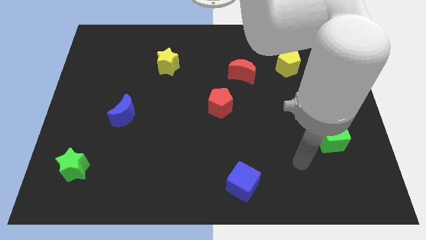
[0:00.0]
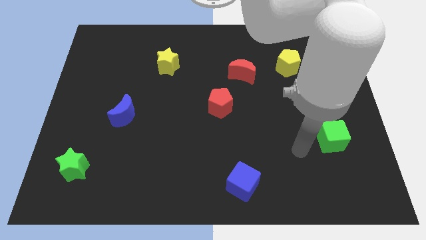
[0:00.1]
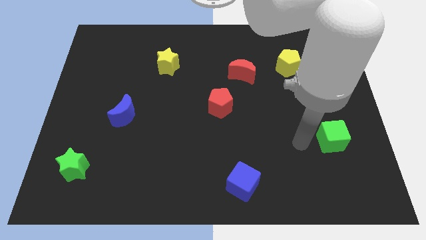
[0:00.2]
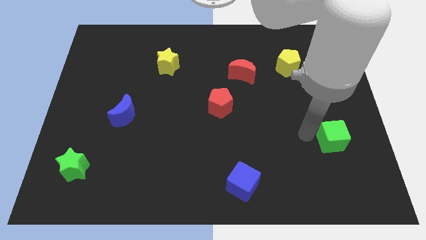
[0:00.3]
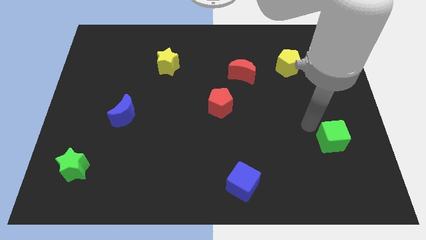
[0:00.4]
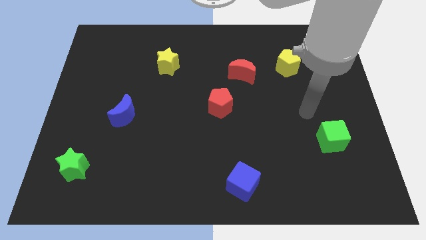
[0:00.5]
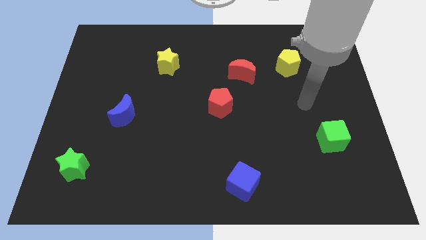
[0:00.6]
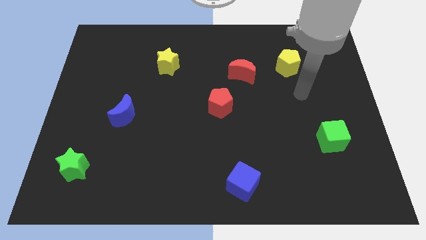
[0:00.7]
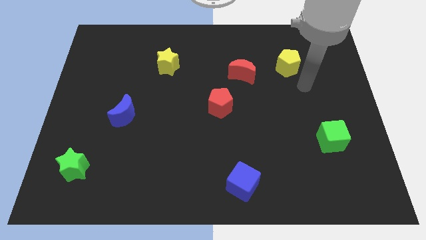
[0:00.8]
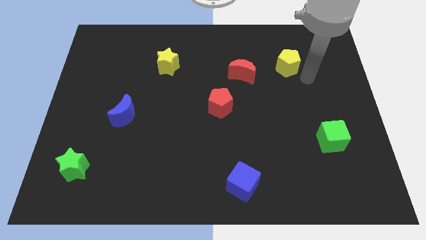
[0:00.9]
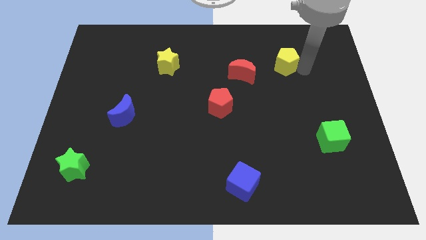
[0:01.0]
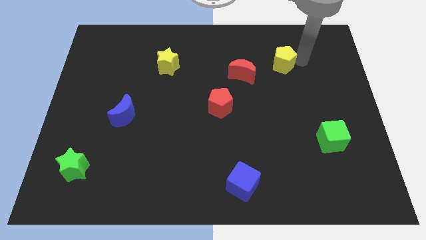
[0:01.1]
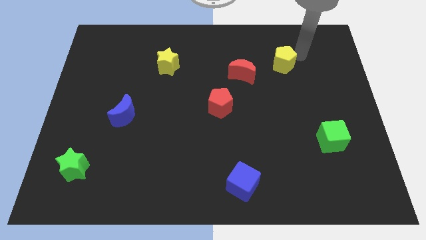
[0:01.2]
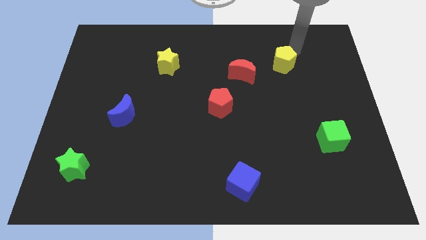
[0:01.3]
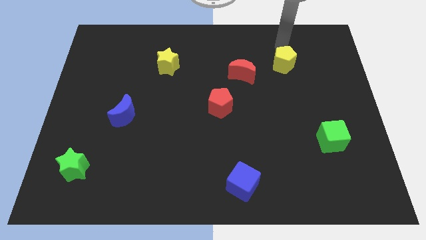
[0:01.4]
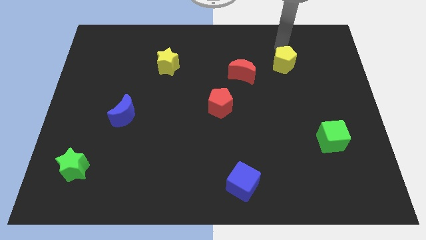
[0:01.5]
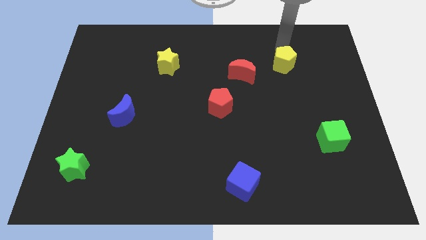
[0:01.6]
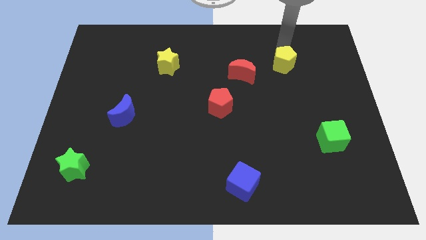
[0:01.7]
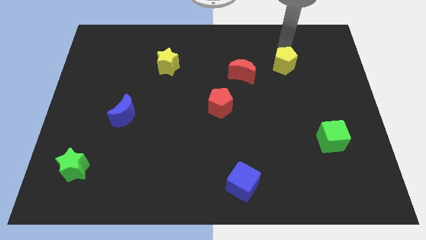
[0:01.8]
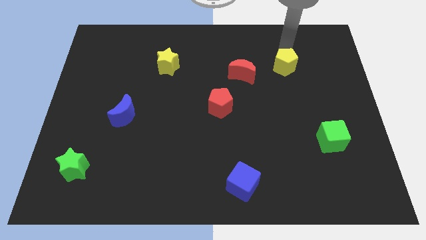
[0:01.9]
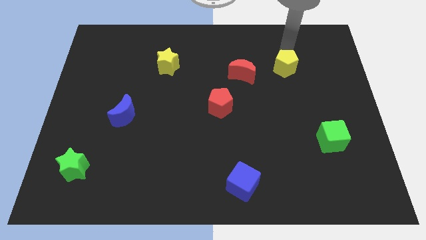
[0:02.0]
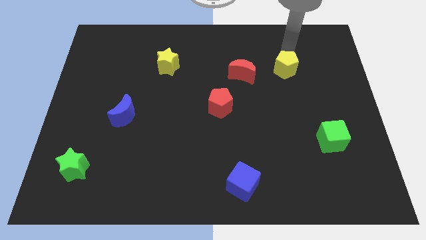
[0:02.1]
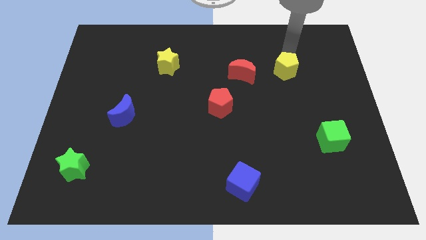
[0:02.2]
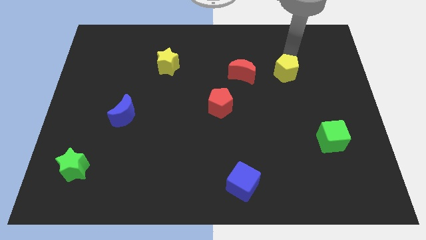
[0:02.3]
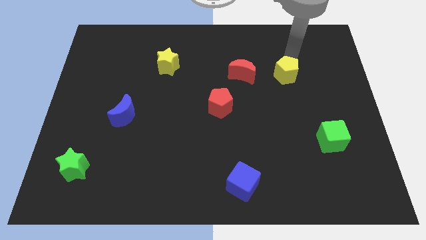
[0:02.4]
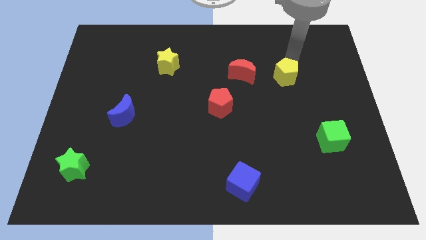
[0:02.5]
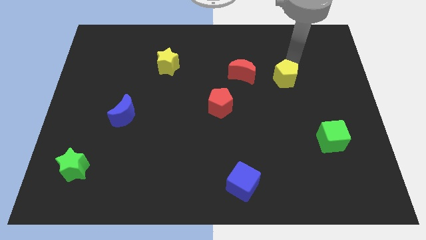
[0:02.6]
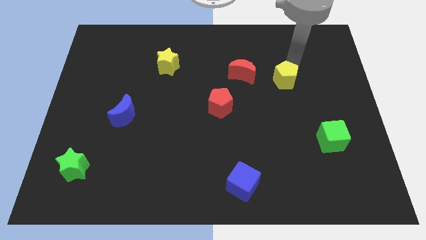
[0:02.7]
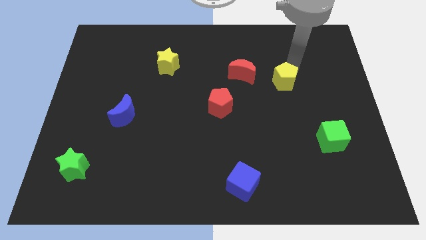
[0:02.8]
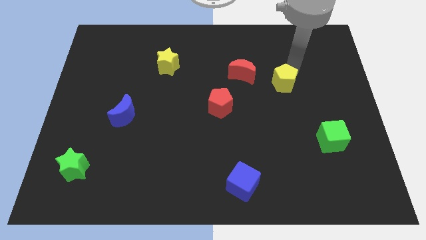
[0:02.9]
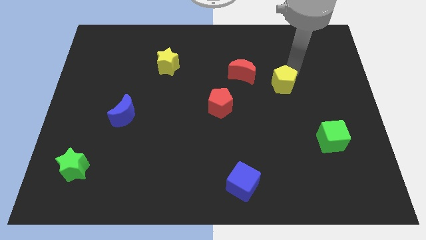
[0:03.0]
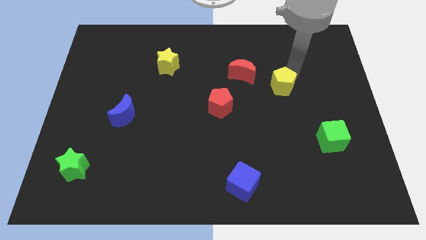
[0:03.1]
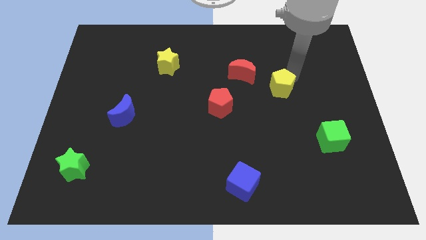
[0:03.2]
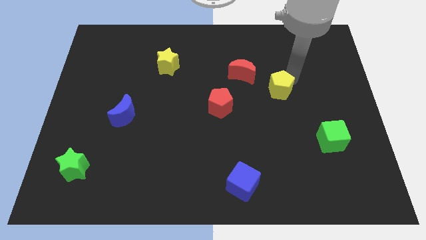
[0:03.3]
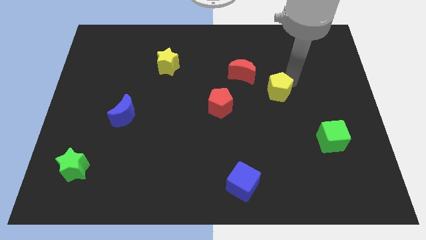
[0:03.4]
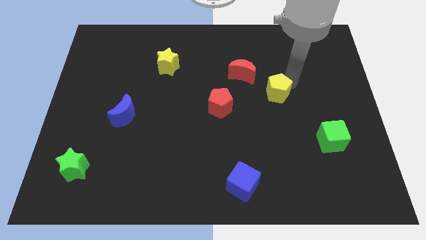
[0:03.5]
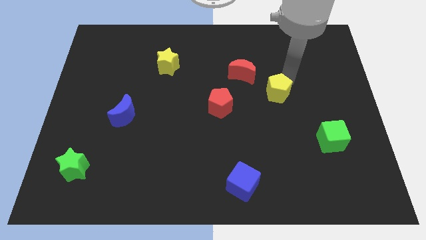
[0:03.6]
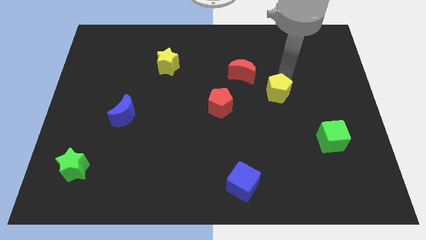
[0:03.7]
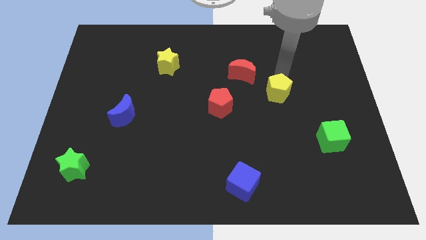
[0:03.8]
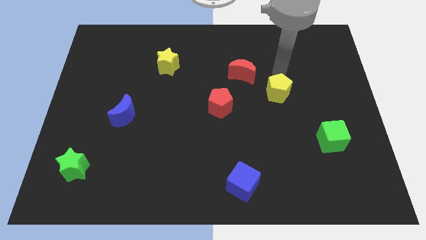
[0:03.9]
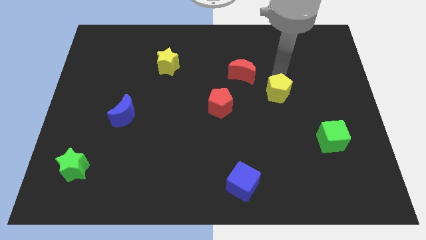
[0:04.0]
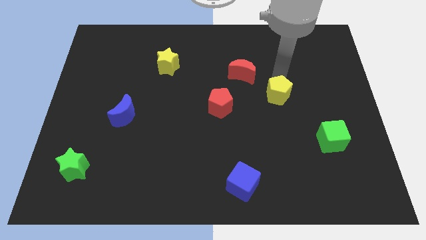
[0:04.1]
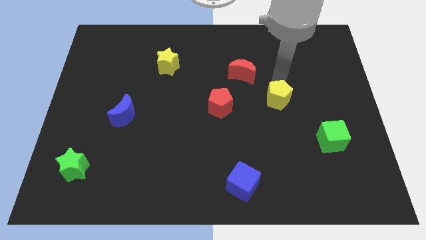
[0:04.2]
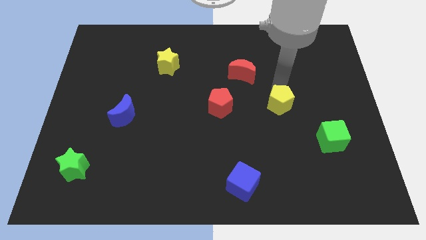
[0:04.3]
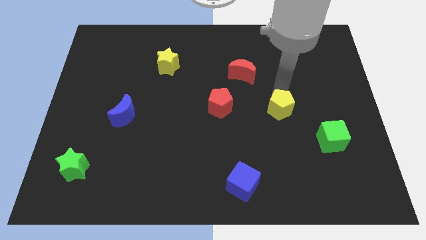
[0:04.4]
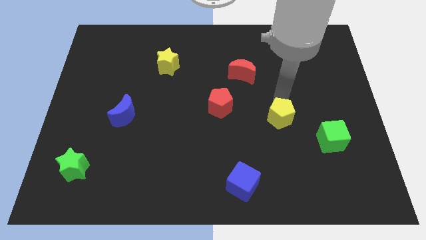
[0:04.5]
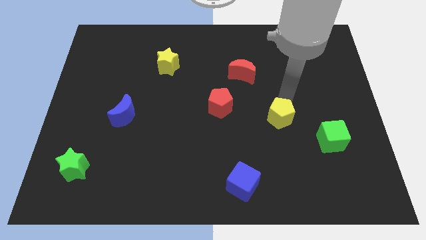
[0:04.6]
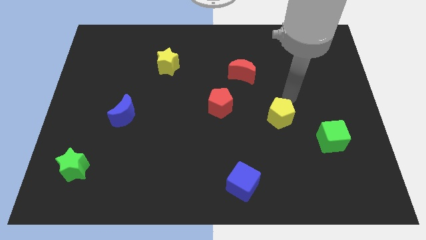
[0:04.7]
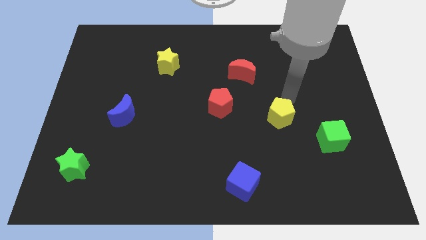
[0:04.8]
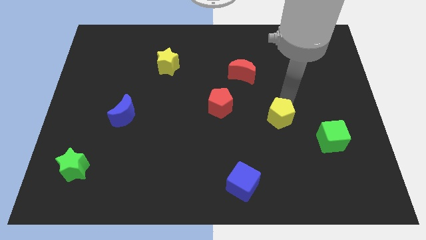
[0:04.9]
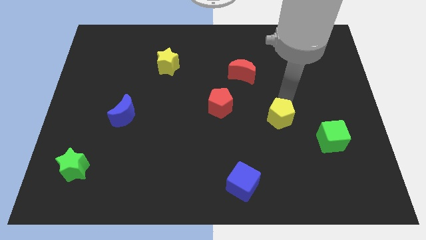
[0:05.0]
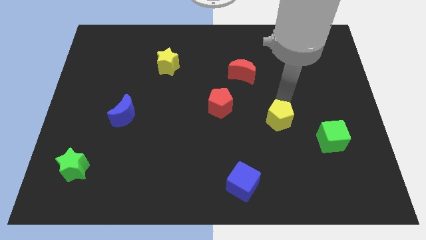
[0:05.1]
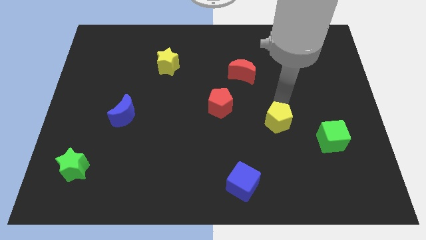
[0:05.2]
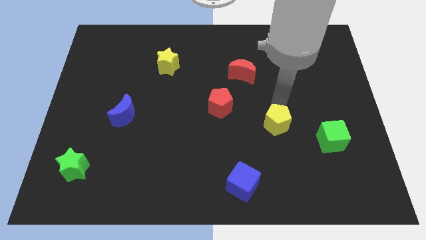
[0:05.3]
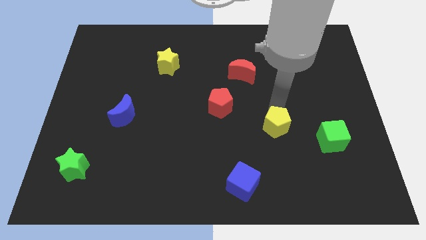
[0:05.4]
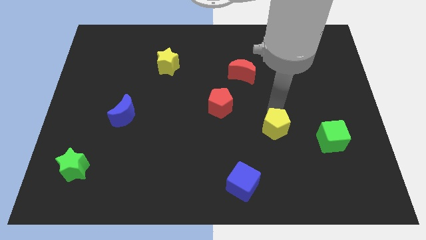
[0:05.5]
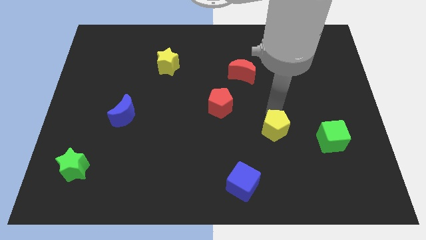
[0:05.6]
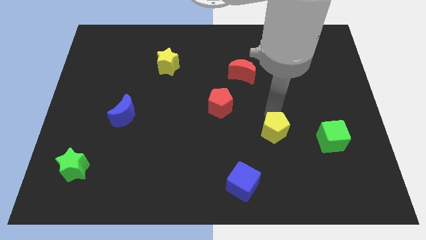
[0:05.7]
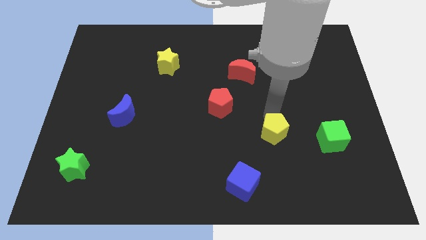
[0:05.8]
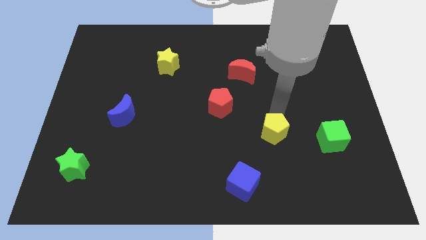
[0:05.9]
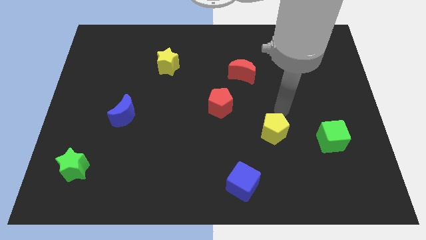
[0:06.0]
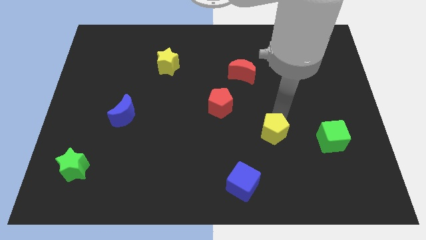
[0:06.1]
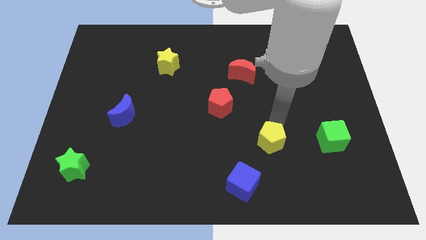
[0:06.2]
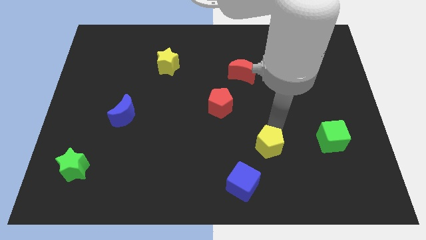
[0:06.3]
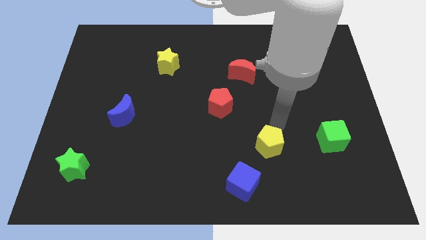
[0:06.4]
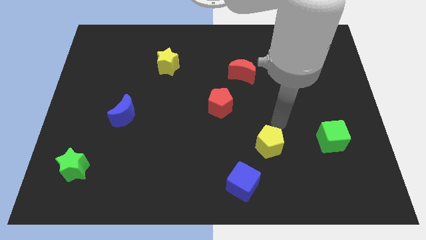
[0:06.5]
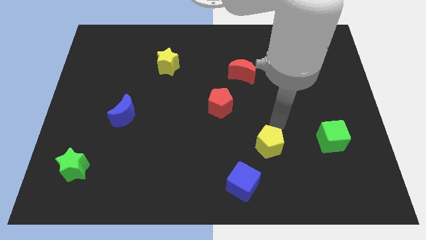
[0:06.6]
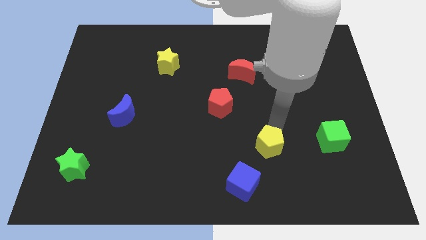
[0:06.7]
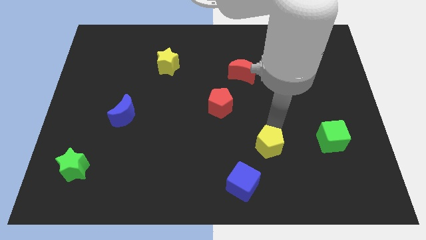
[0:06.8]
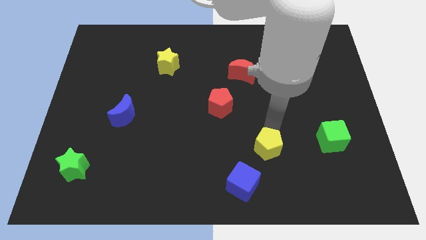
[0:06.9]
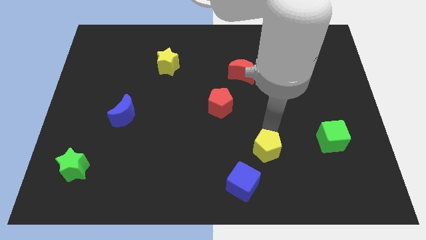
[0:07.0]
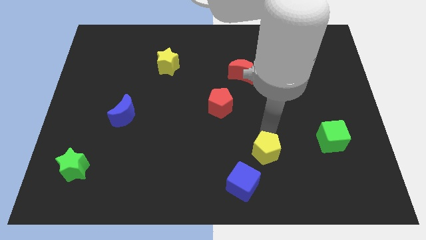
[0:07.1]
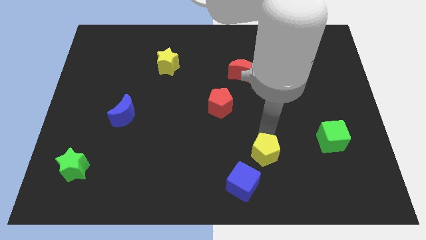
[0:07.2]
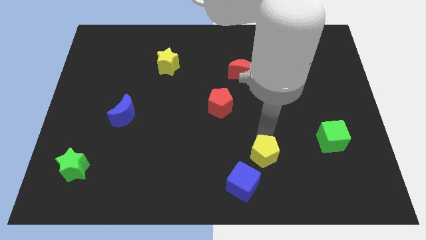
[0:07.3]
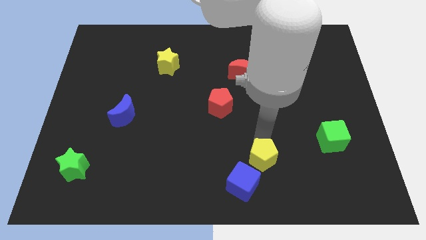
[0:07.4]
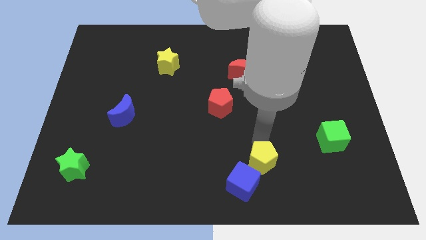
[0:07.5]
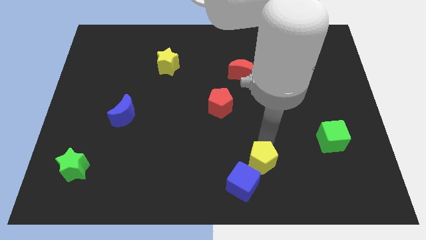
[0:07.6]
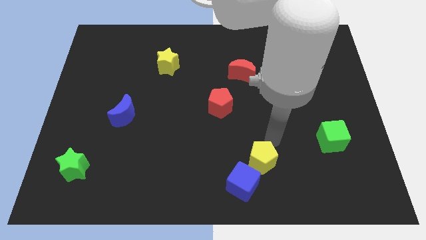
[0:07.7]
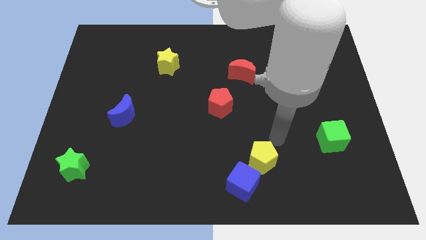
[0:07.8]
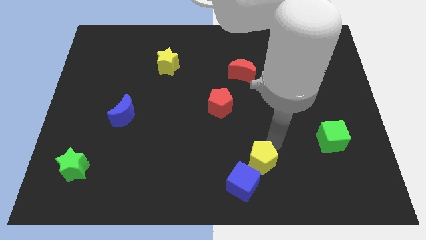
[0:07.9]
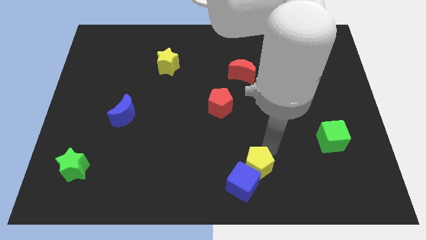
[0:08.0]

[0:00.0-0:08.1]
slide the yellow pentagon next to the blue cube
